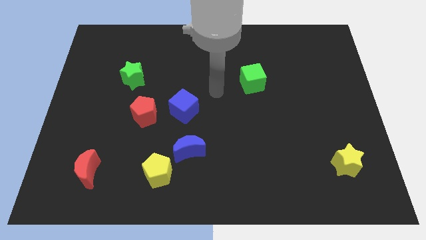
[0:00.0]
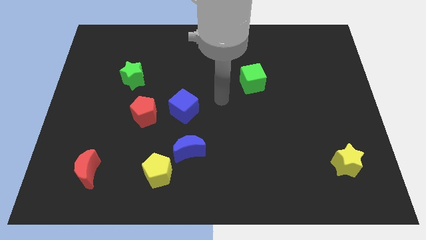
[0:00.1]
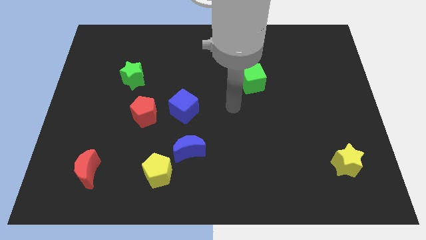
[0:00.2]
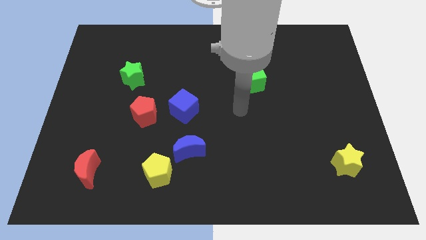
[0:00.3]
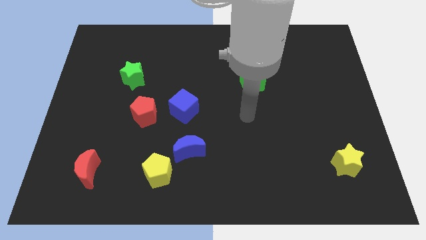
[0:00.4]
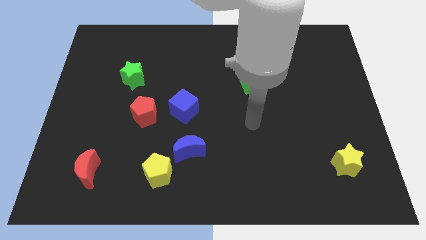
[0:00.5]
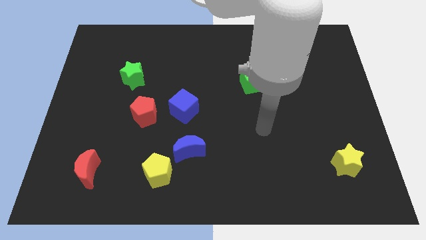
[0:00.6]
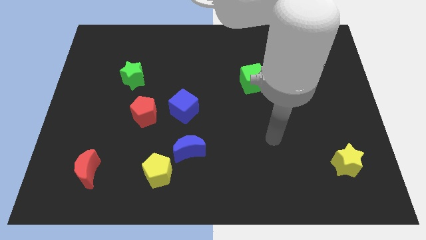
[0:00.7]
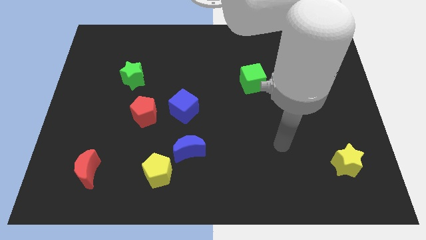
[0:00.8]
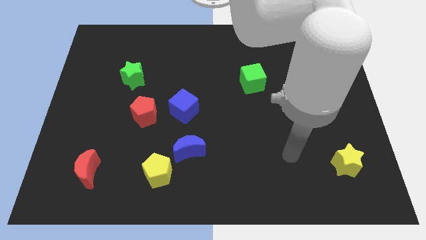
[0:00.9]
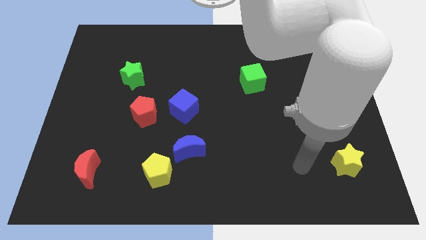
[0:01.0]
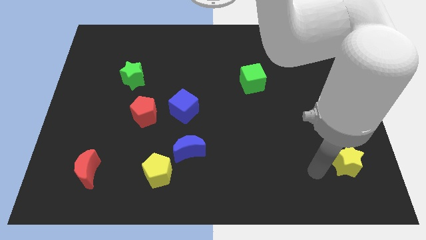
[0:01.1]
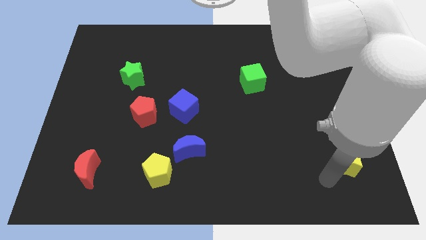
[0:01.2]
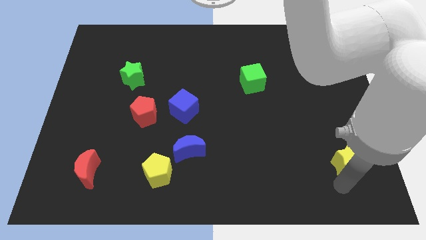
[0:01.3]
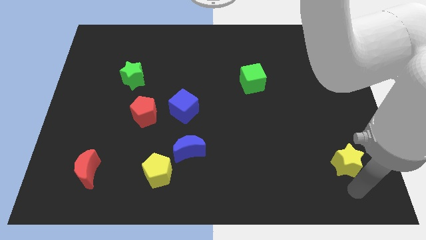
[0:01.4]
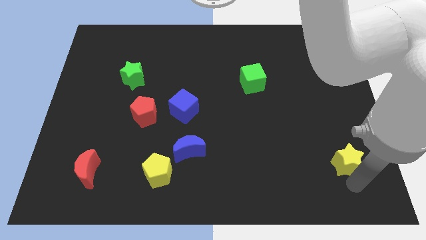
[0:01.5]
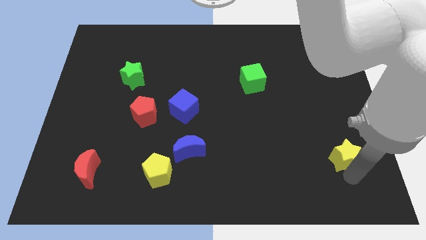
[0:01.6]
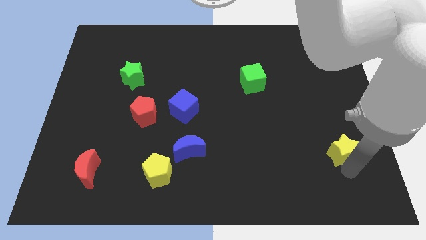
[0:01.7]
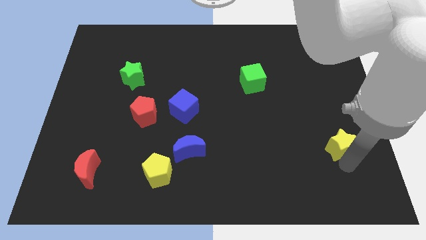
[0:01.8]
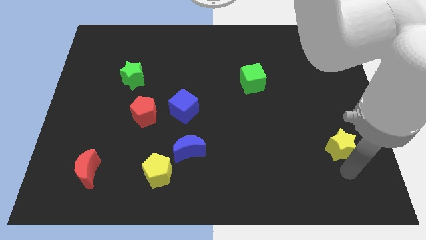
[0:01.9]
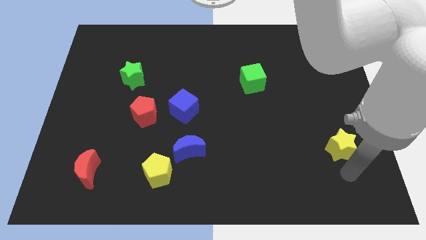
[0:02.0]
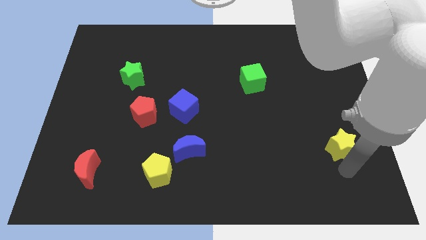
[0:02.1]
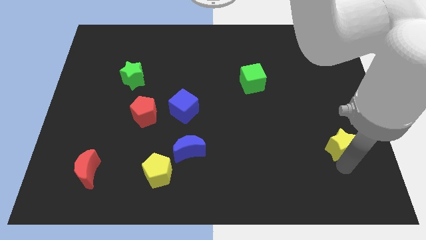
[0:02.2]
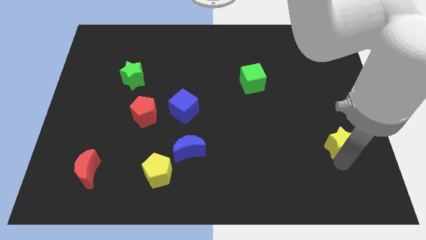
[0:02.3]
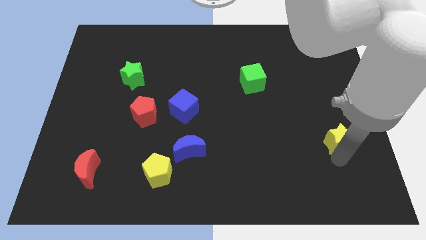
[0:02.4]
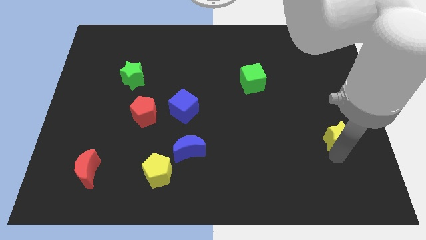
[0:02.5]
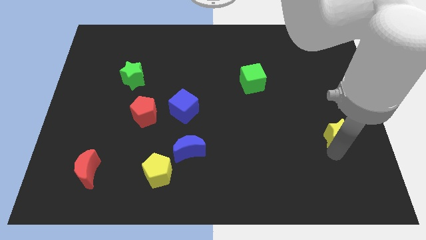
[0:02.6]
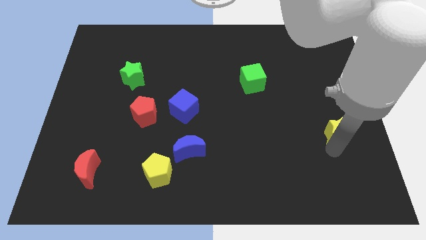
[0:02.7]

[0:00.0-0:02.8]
slightly slide the yellow star up

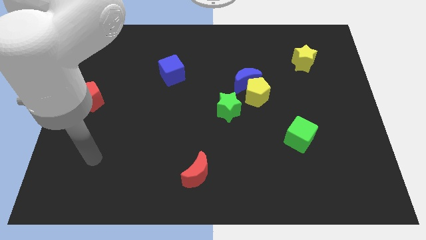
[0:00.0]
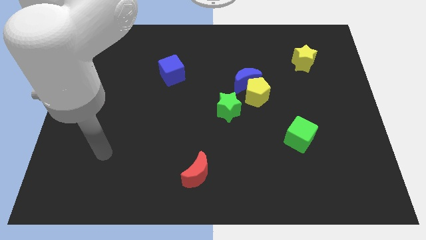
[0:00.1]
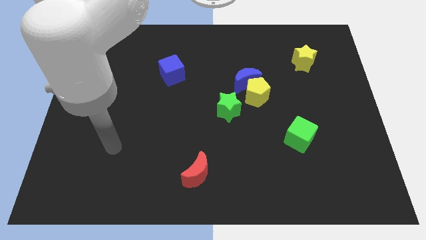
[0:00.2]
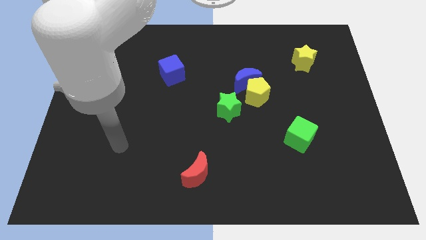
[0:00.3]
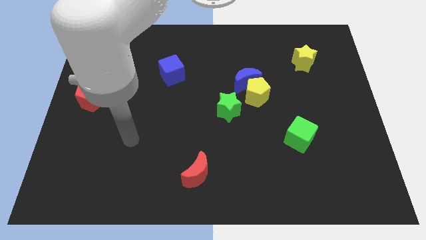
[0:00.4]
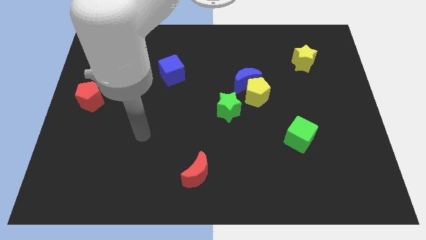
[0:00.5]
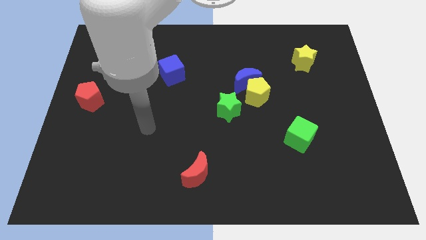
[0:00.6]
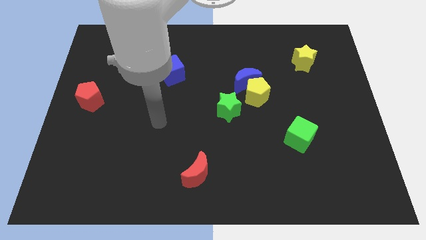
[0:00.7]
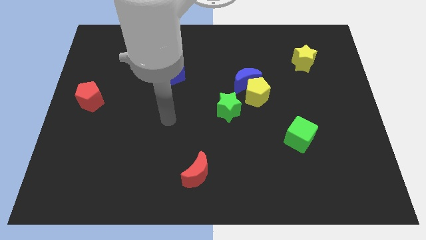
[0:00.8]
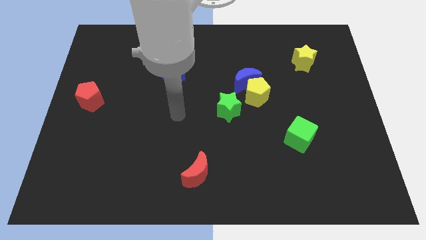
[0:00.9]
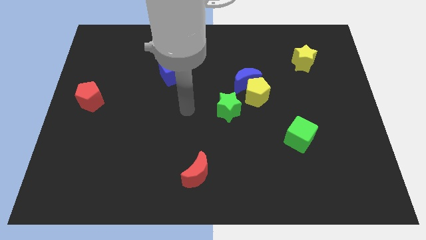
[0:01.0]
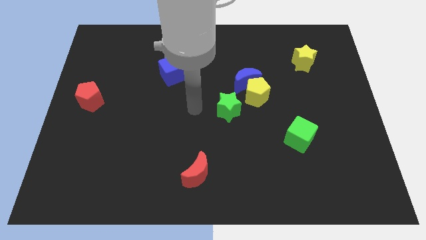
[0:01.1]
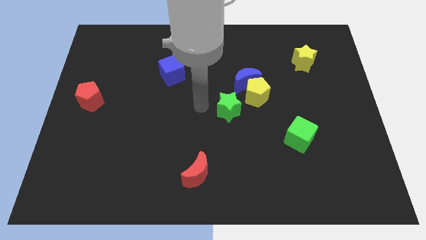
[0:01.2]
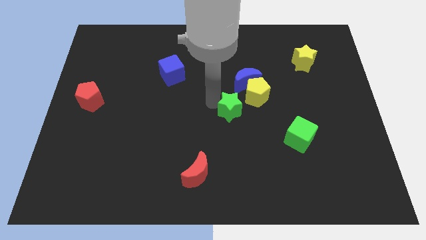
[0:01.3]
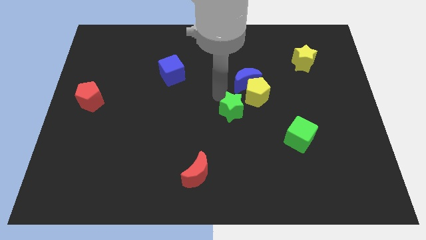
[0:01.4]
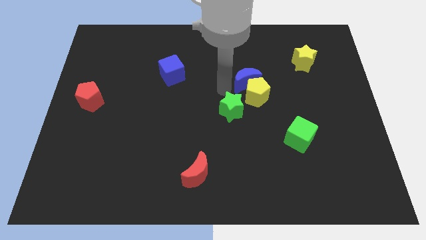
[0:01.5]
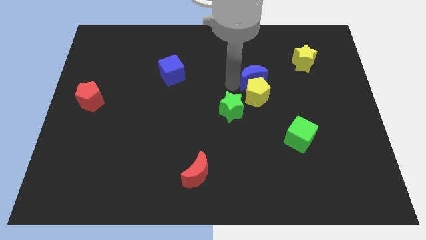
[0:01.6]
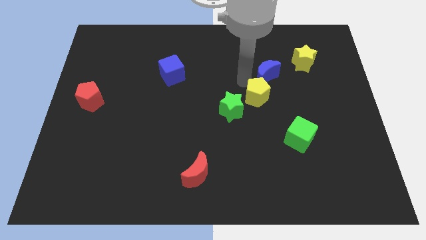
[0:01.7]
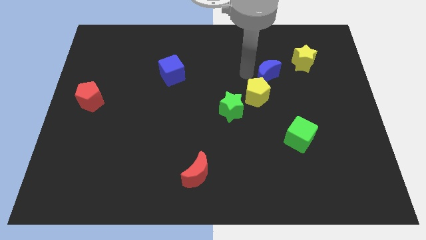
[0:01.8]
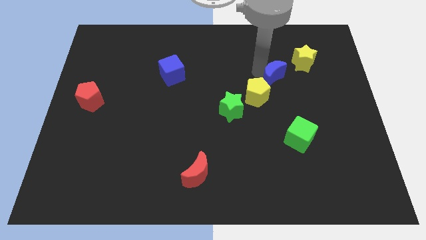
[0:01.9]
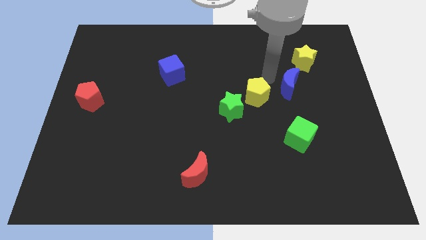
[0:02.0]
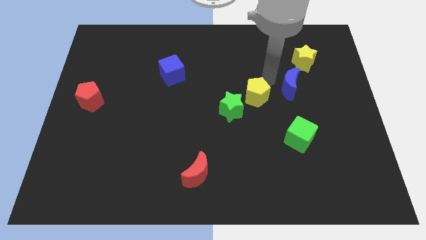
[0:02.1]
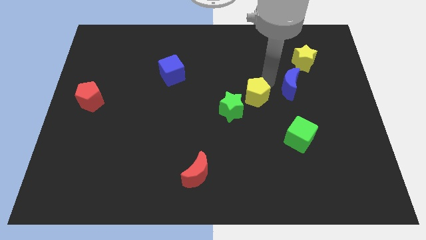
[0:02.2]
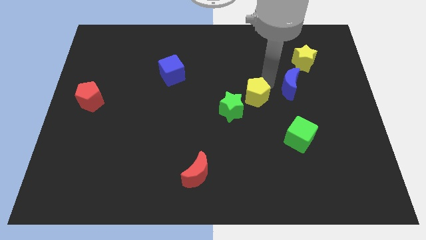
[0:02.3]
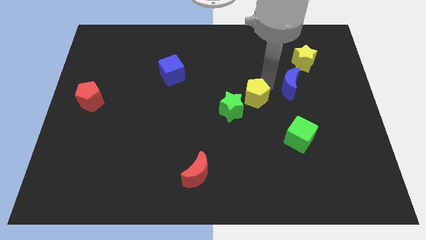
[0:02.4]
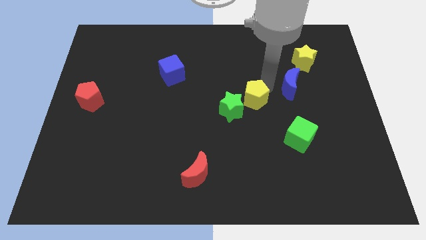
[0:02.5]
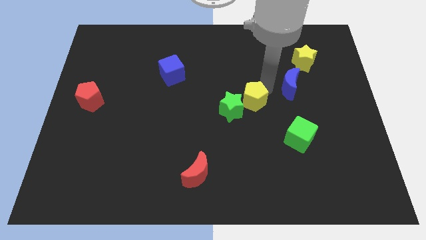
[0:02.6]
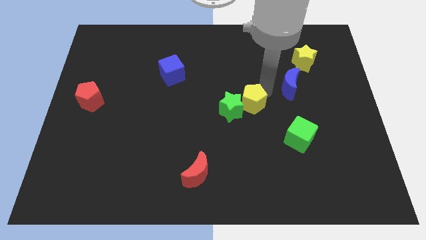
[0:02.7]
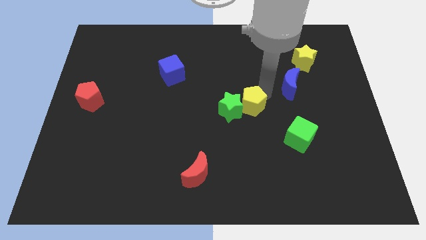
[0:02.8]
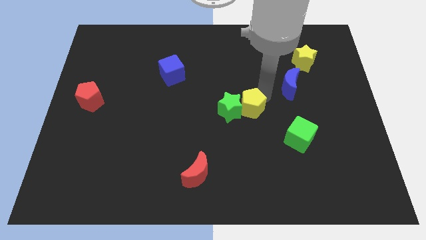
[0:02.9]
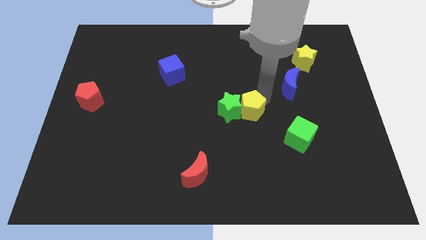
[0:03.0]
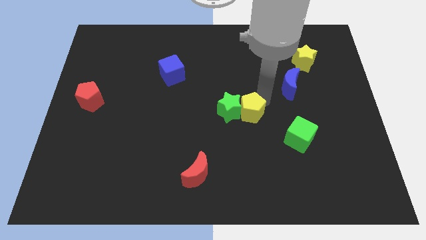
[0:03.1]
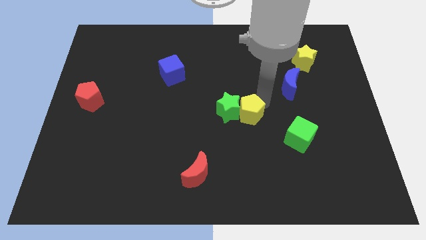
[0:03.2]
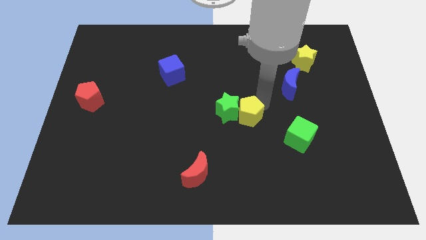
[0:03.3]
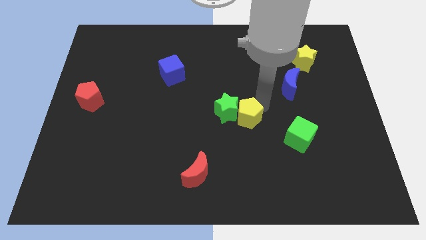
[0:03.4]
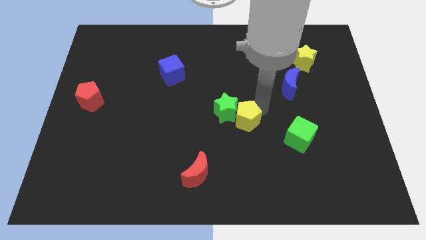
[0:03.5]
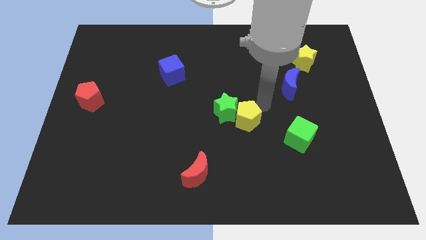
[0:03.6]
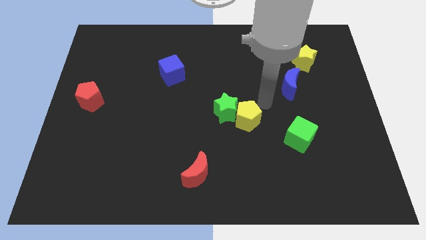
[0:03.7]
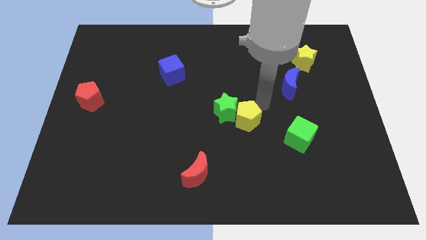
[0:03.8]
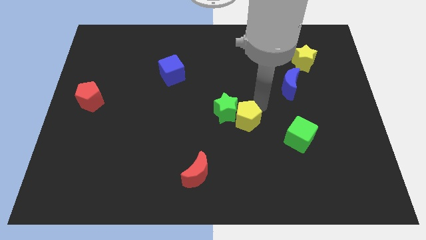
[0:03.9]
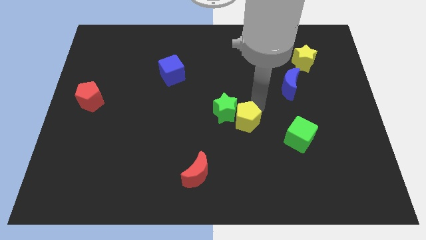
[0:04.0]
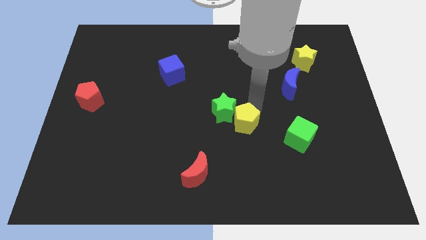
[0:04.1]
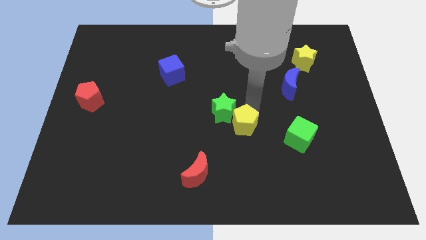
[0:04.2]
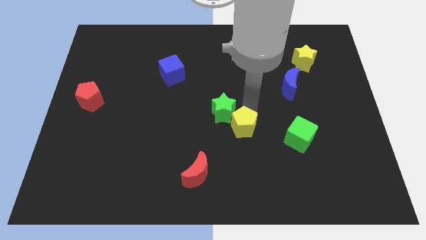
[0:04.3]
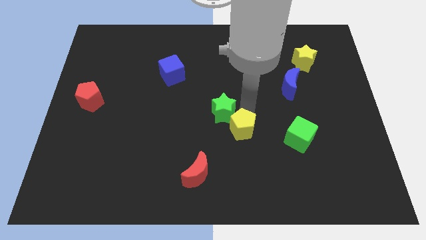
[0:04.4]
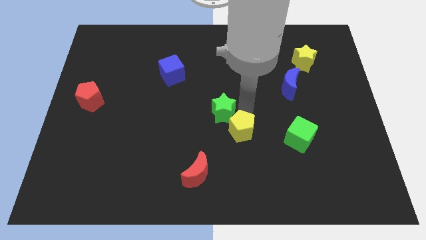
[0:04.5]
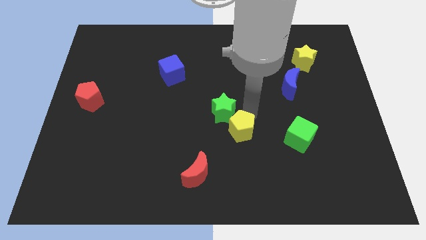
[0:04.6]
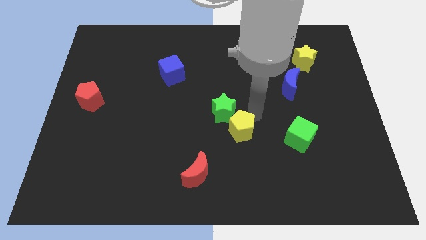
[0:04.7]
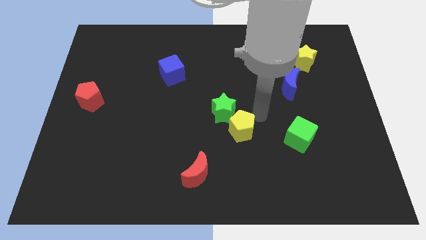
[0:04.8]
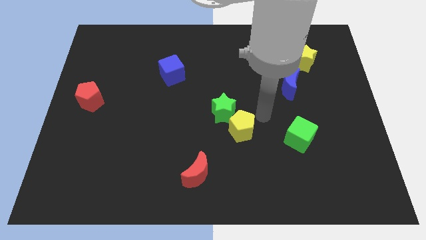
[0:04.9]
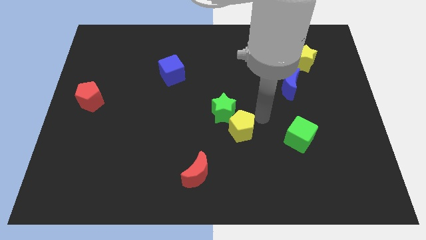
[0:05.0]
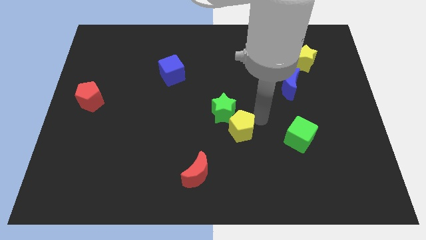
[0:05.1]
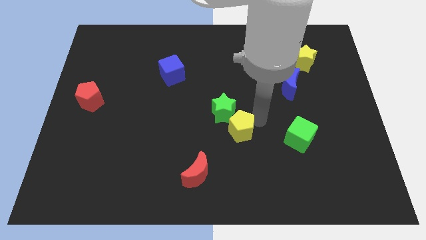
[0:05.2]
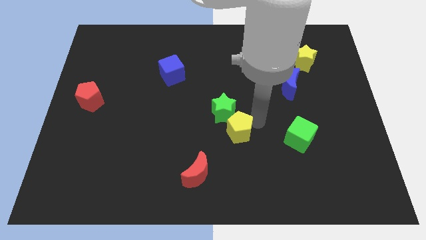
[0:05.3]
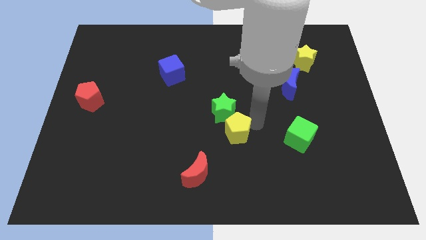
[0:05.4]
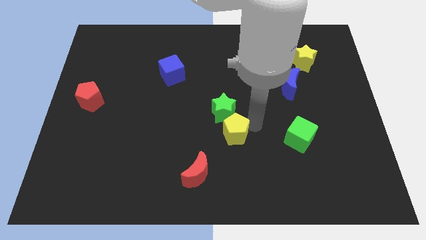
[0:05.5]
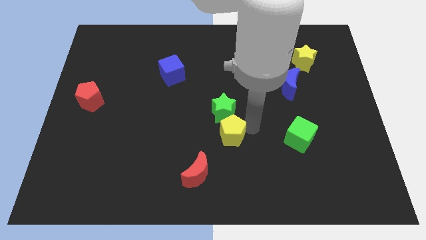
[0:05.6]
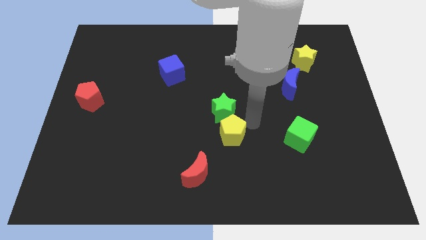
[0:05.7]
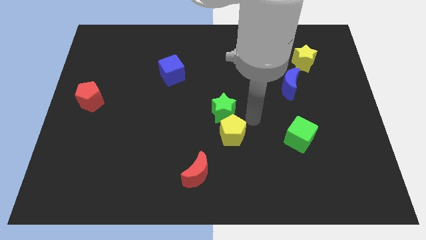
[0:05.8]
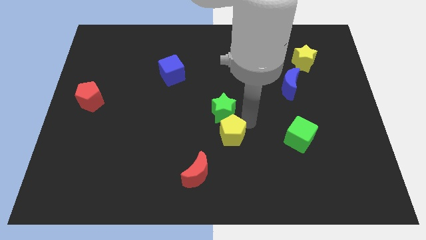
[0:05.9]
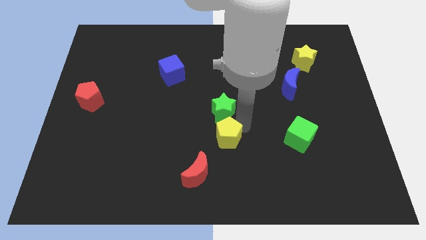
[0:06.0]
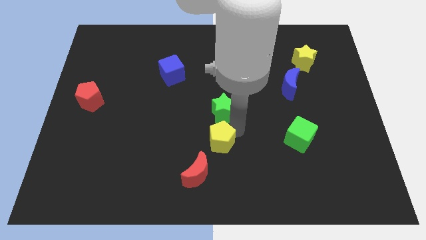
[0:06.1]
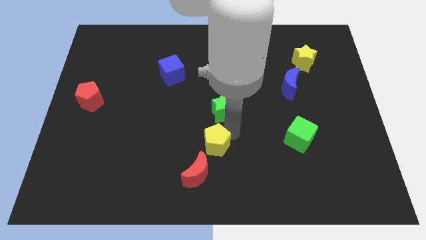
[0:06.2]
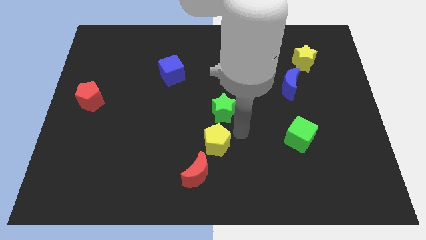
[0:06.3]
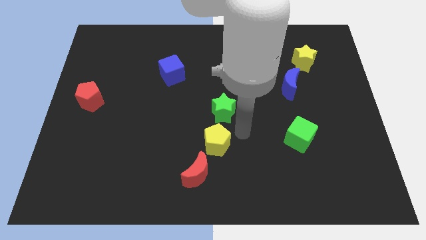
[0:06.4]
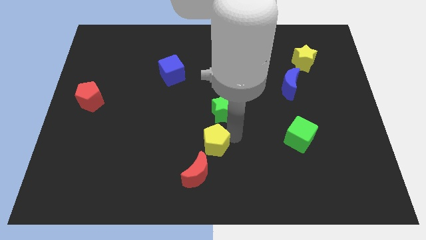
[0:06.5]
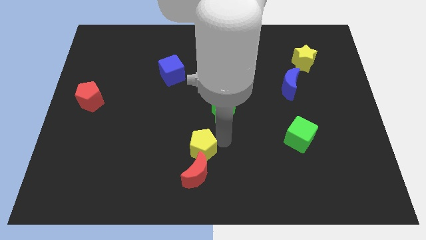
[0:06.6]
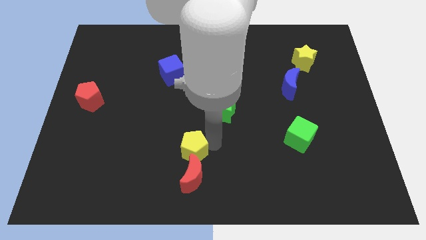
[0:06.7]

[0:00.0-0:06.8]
push the yellow pentagon down and left diagonally
